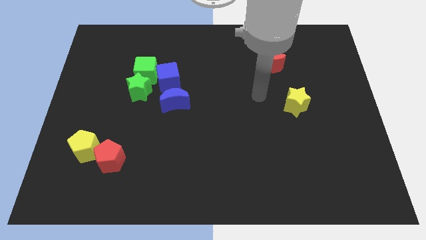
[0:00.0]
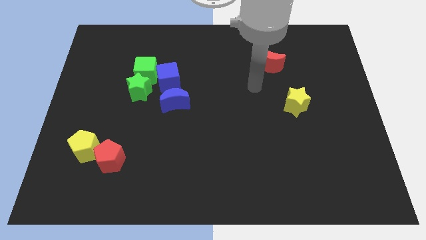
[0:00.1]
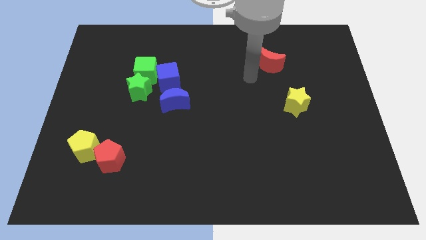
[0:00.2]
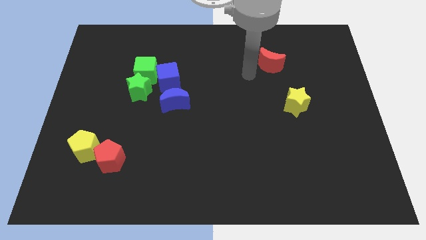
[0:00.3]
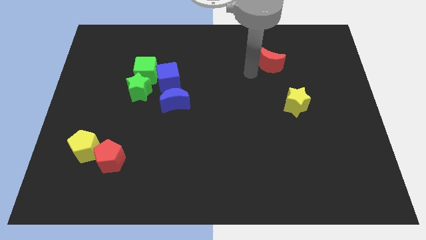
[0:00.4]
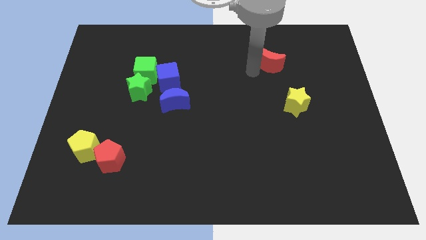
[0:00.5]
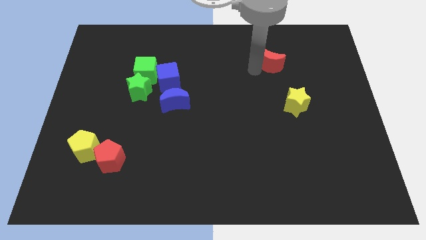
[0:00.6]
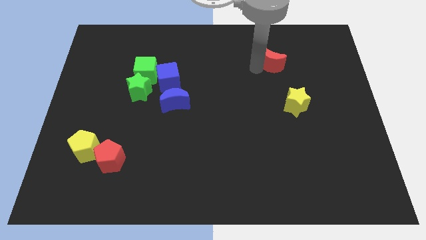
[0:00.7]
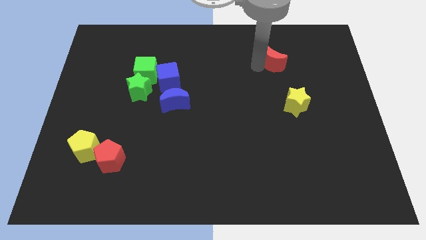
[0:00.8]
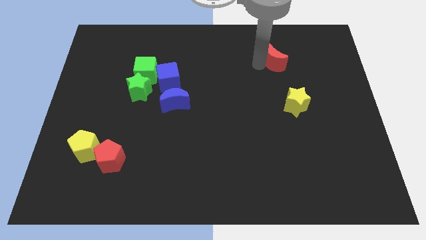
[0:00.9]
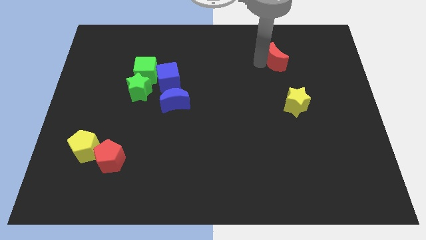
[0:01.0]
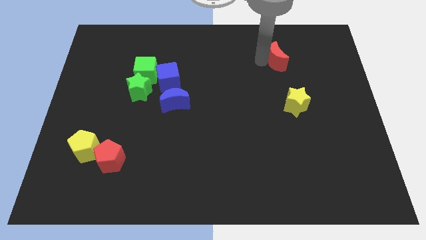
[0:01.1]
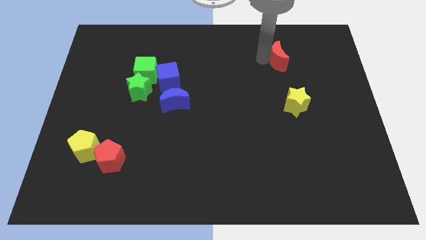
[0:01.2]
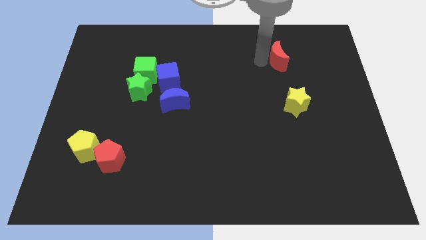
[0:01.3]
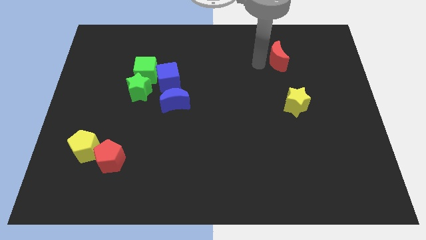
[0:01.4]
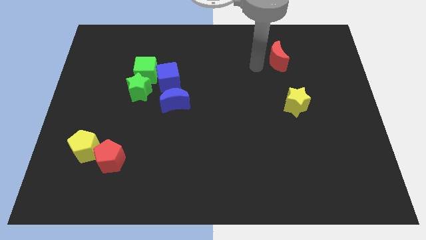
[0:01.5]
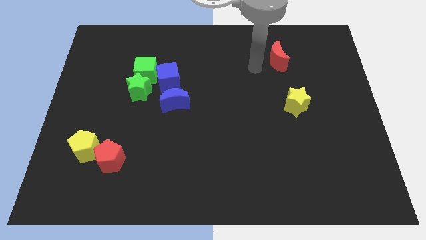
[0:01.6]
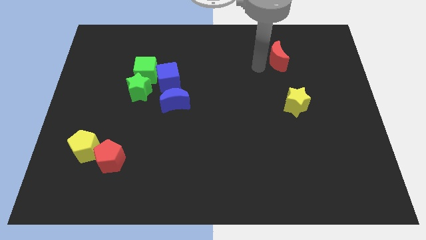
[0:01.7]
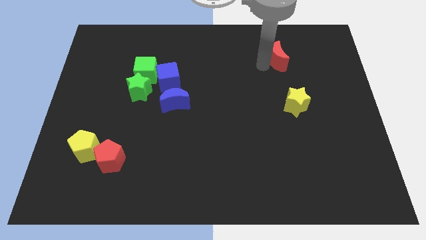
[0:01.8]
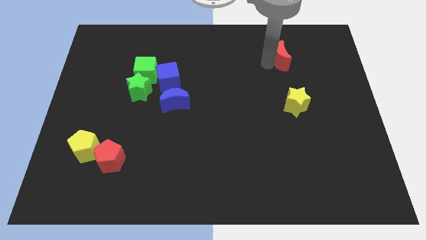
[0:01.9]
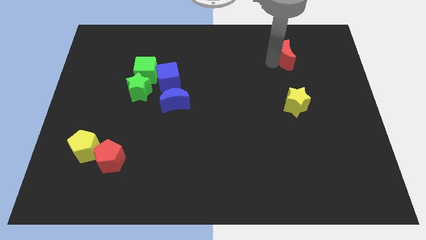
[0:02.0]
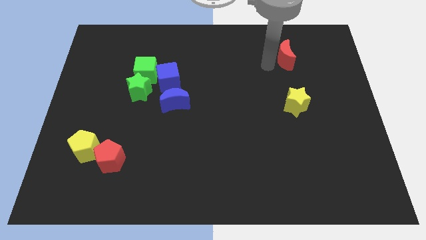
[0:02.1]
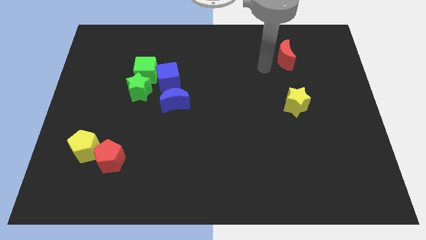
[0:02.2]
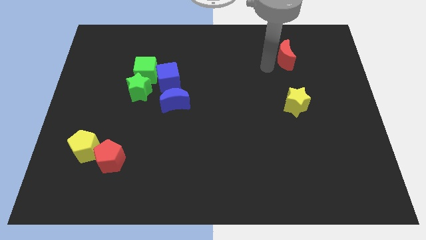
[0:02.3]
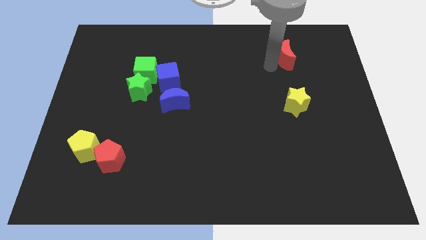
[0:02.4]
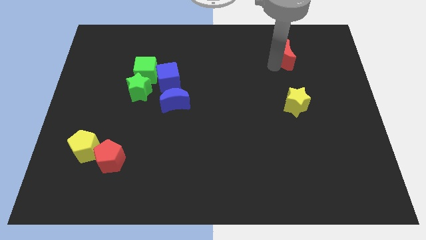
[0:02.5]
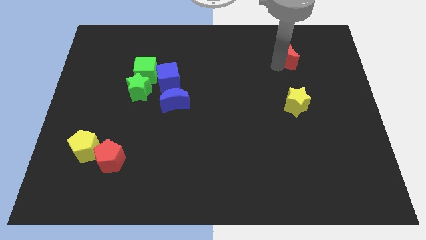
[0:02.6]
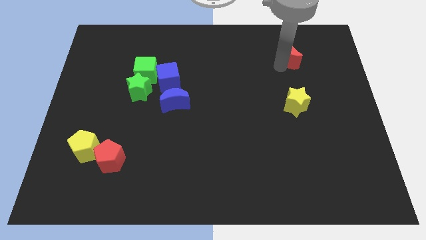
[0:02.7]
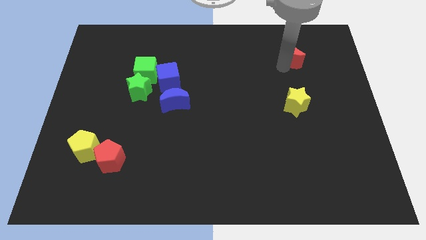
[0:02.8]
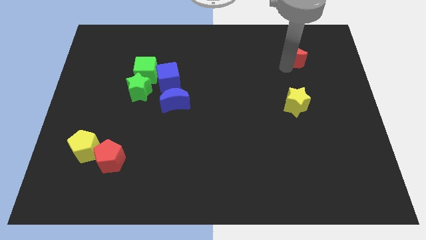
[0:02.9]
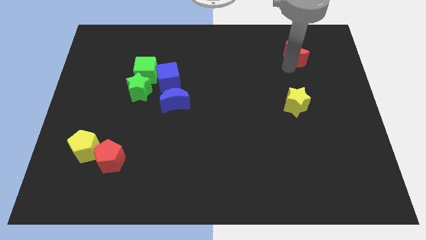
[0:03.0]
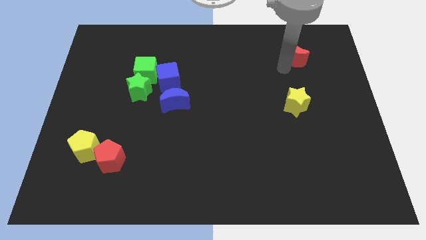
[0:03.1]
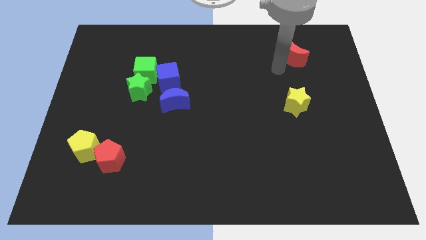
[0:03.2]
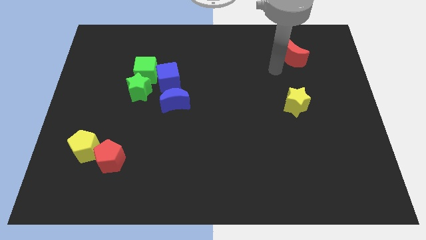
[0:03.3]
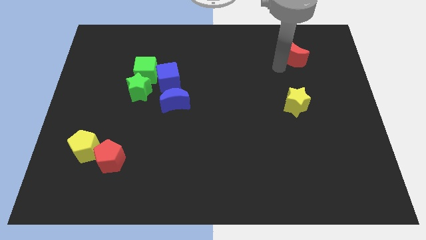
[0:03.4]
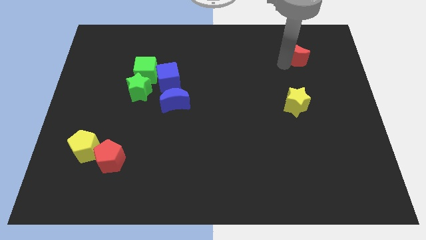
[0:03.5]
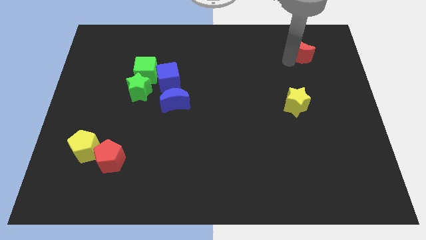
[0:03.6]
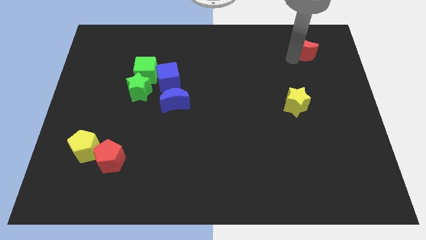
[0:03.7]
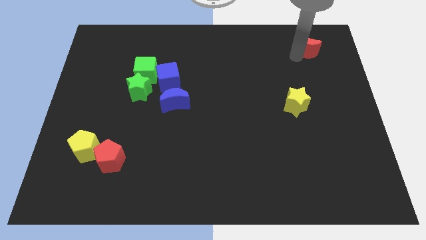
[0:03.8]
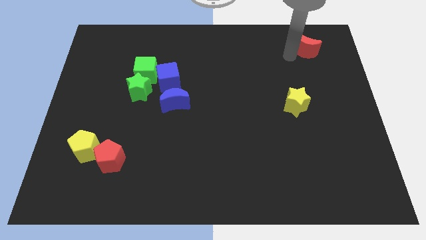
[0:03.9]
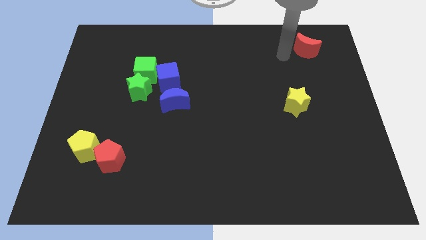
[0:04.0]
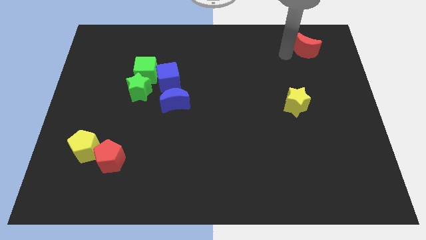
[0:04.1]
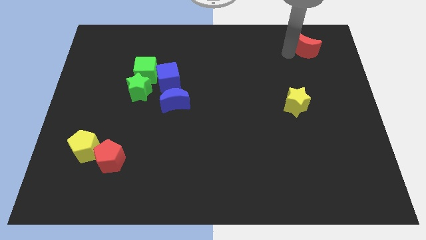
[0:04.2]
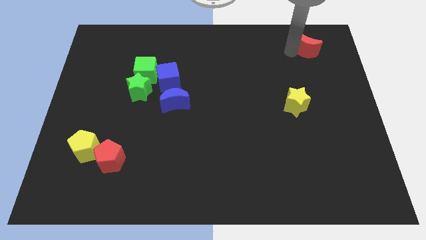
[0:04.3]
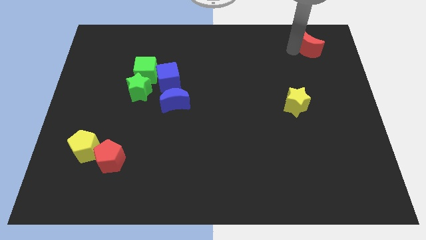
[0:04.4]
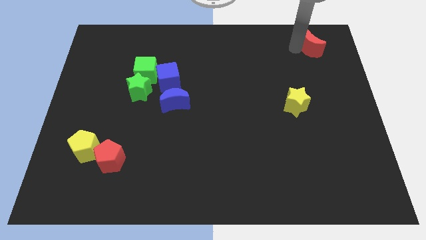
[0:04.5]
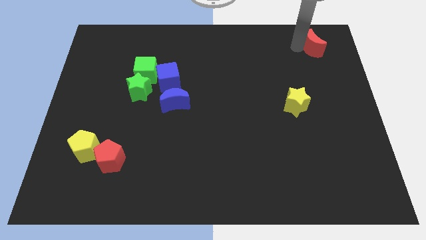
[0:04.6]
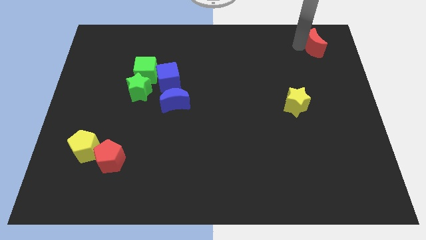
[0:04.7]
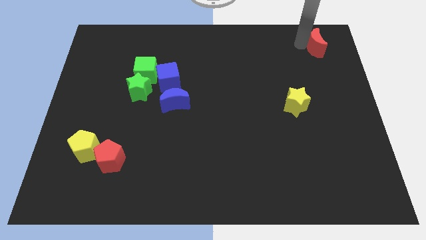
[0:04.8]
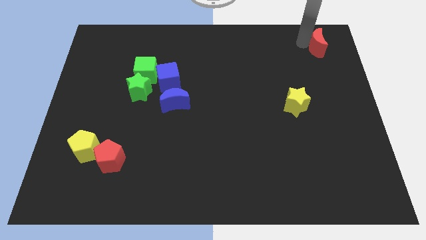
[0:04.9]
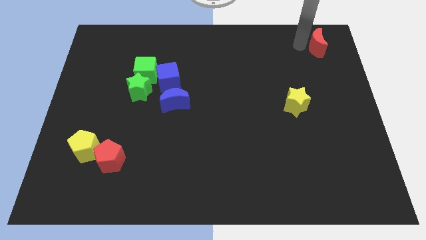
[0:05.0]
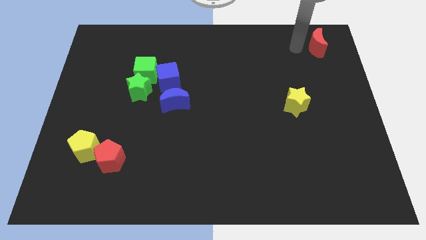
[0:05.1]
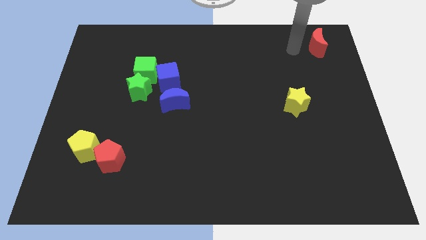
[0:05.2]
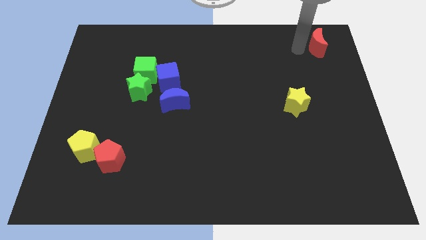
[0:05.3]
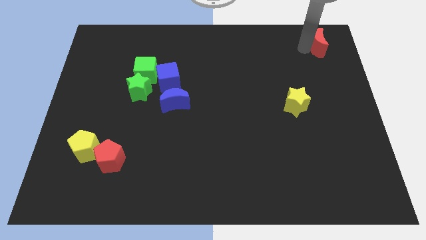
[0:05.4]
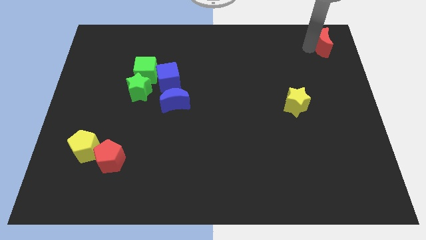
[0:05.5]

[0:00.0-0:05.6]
move the red moon to the upper right corner
